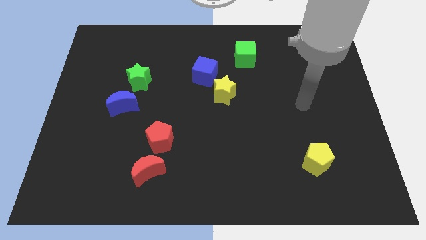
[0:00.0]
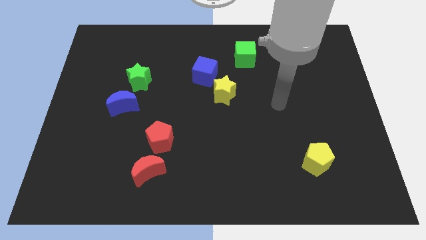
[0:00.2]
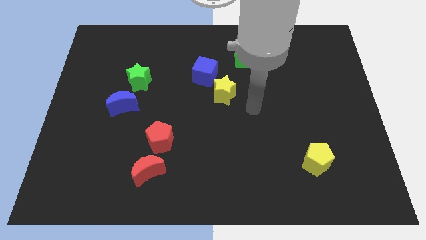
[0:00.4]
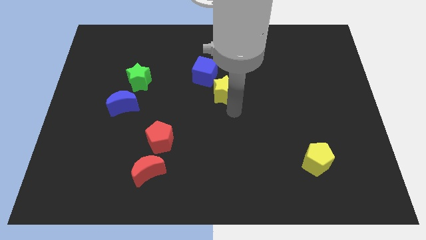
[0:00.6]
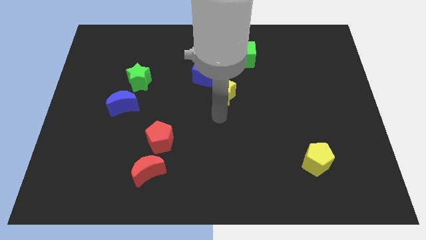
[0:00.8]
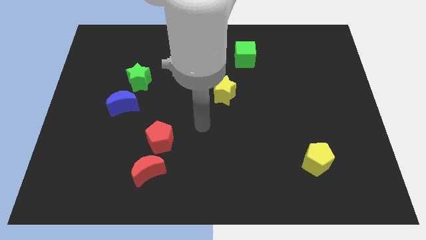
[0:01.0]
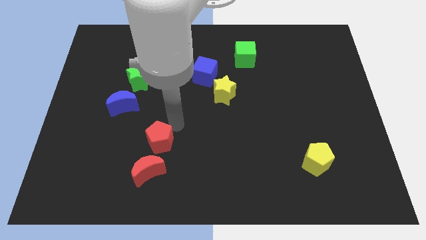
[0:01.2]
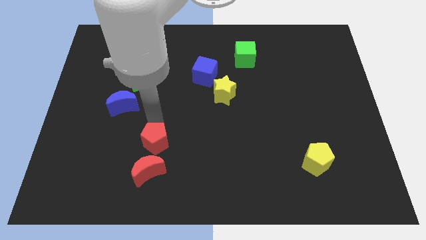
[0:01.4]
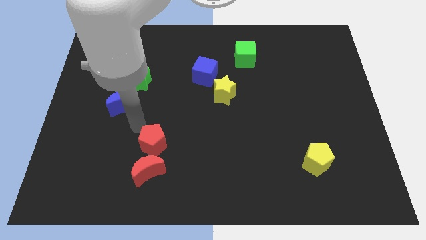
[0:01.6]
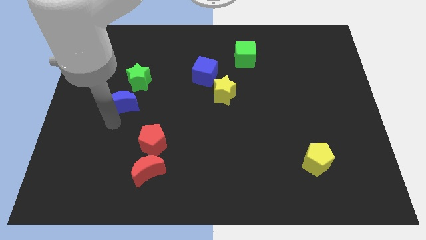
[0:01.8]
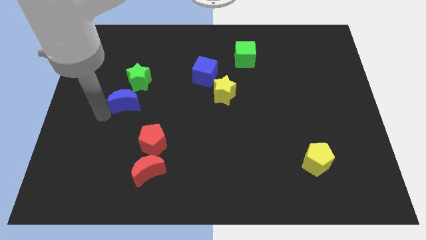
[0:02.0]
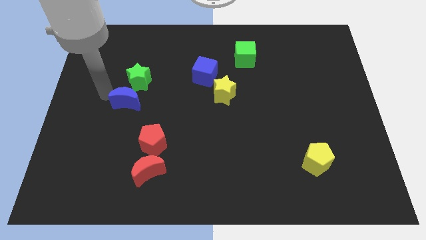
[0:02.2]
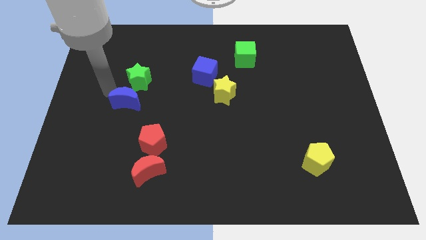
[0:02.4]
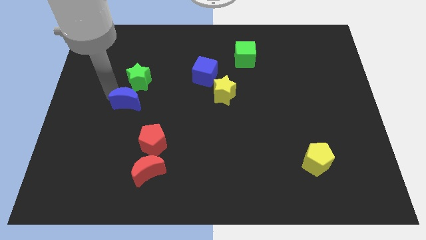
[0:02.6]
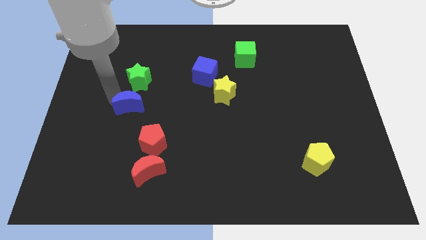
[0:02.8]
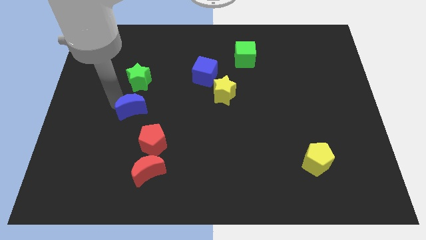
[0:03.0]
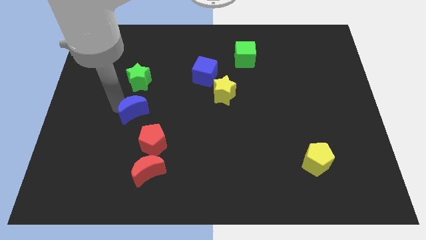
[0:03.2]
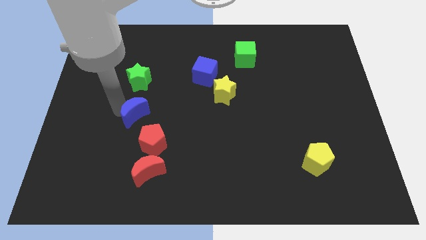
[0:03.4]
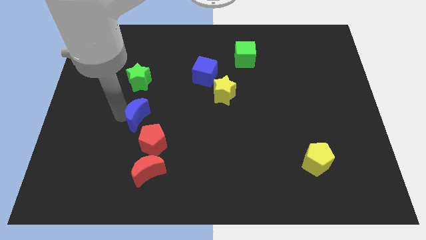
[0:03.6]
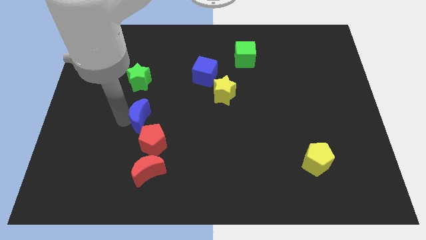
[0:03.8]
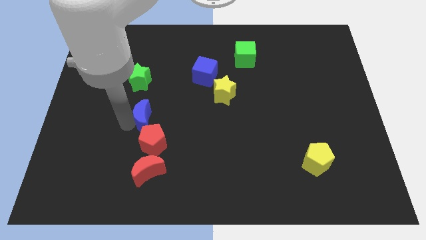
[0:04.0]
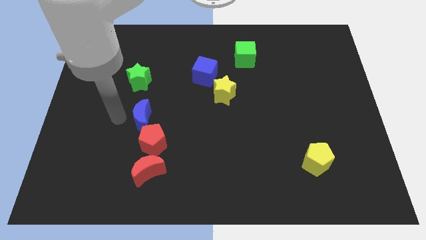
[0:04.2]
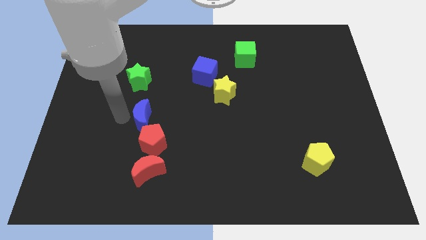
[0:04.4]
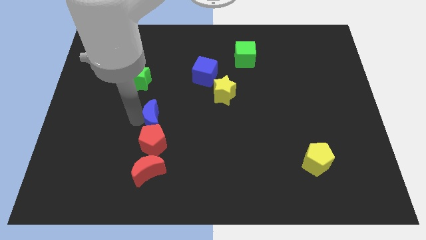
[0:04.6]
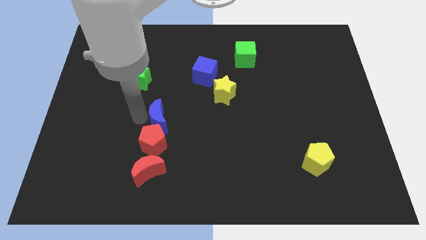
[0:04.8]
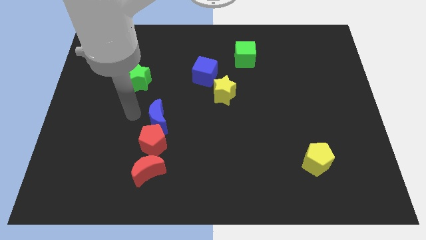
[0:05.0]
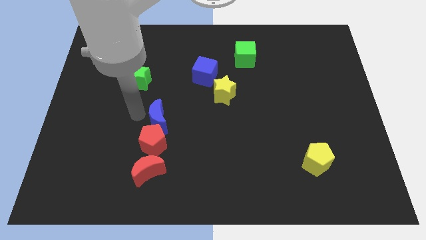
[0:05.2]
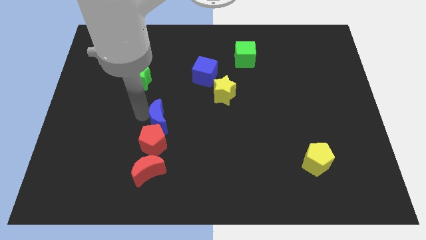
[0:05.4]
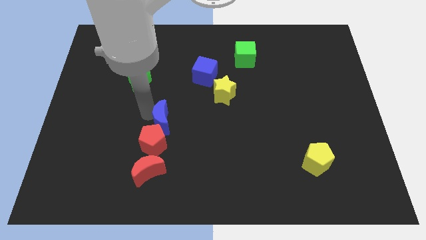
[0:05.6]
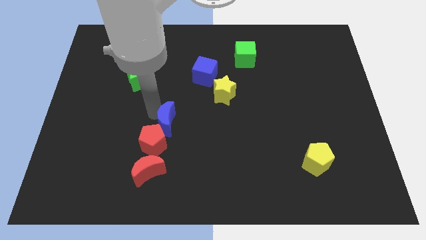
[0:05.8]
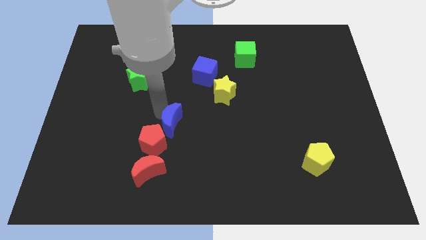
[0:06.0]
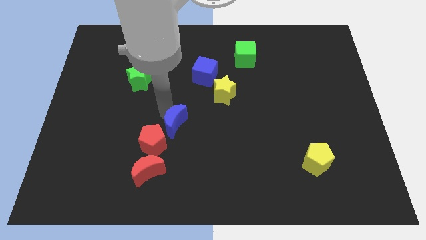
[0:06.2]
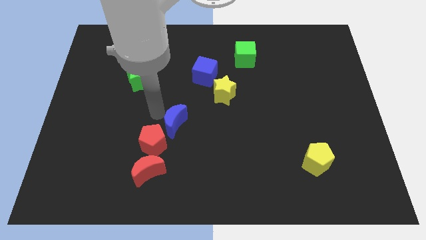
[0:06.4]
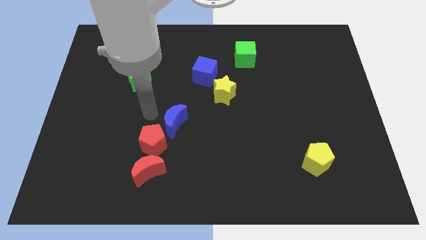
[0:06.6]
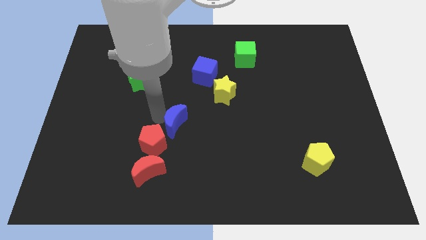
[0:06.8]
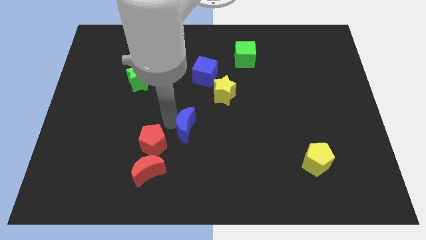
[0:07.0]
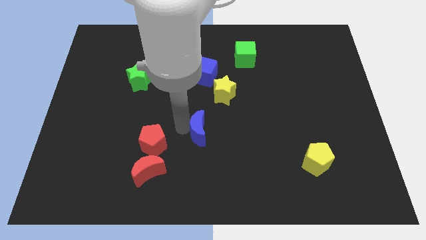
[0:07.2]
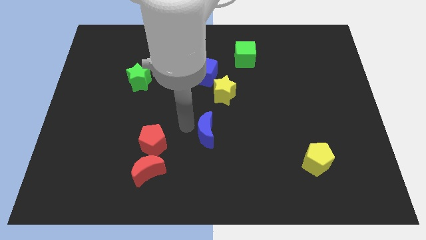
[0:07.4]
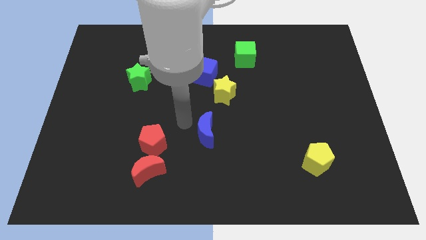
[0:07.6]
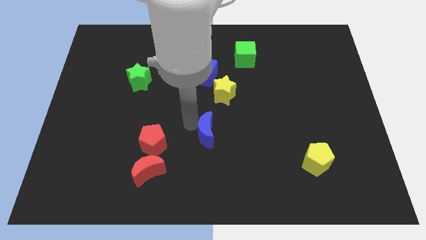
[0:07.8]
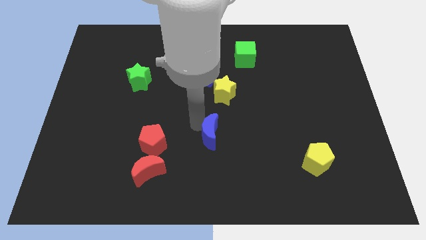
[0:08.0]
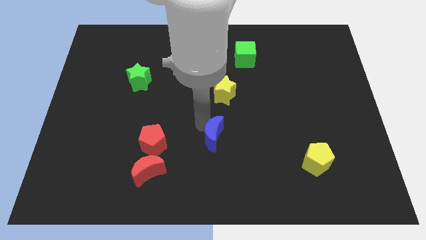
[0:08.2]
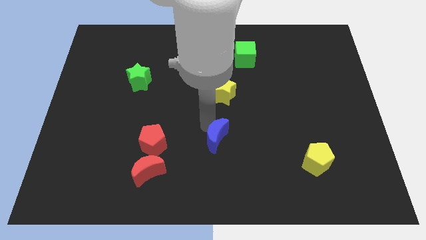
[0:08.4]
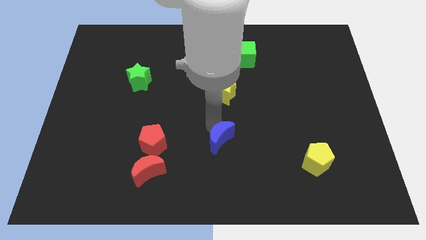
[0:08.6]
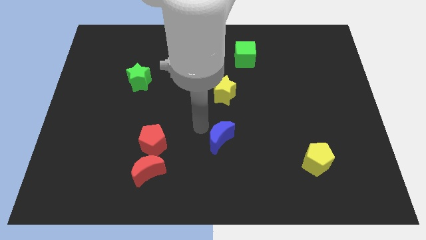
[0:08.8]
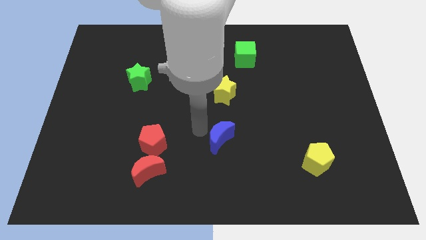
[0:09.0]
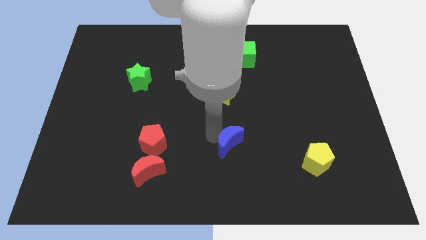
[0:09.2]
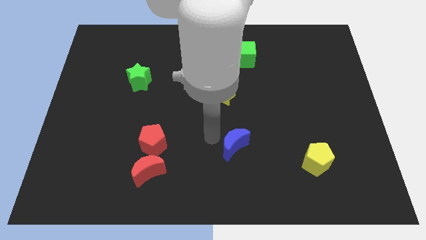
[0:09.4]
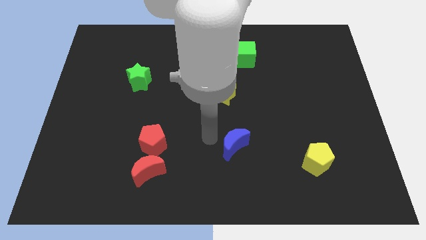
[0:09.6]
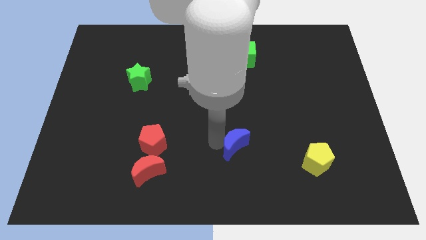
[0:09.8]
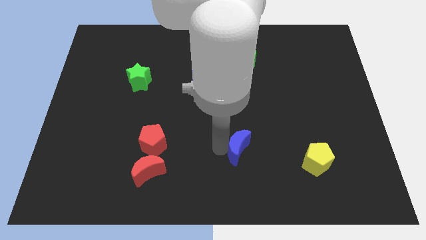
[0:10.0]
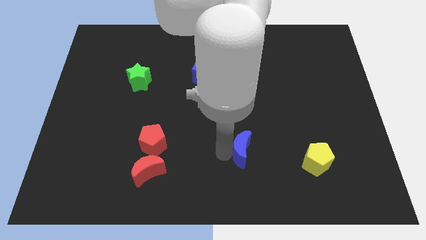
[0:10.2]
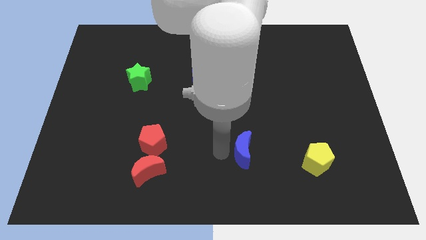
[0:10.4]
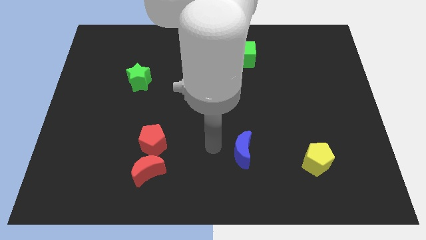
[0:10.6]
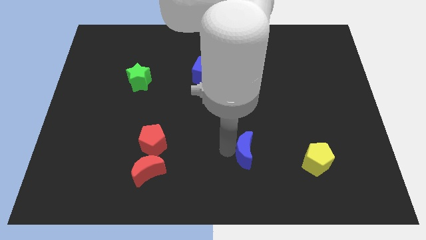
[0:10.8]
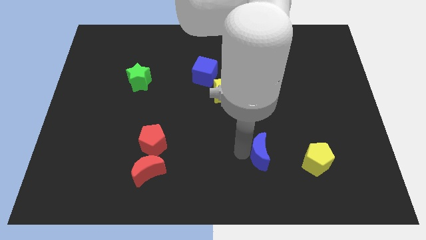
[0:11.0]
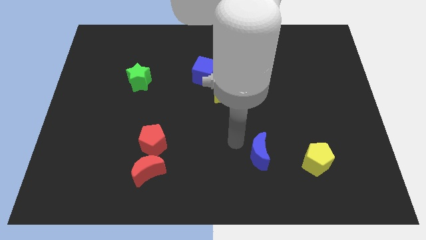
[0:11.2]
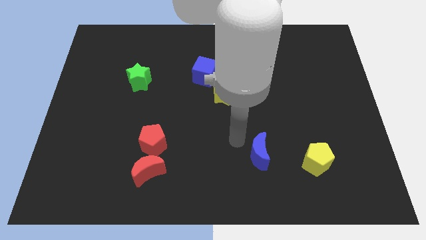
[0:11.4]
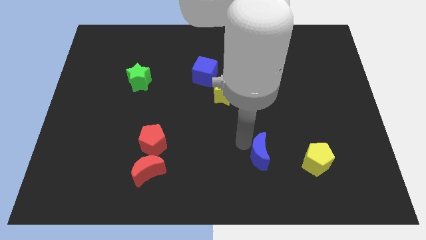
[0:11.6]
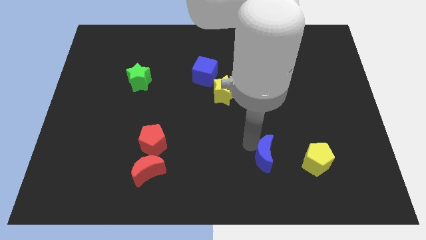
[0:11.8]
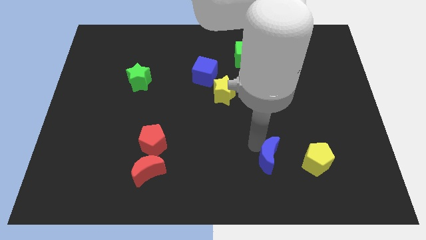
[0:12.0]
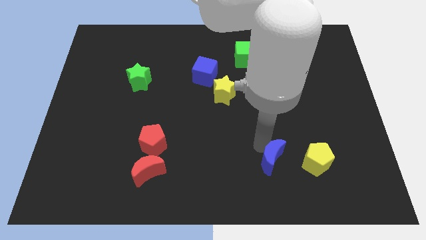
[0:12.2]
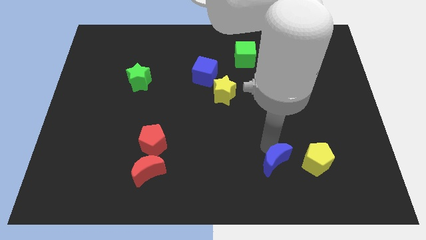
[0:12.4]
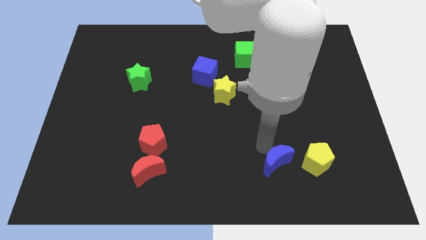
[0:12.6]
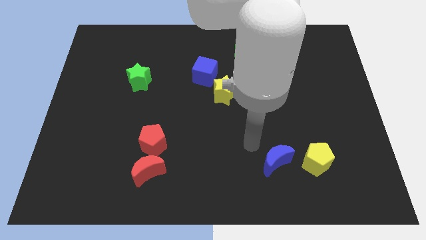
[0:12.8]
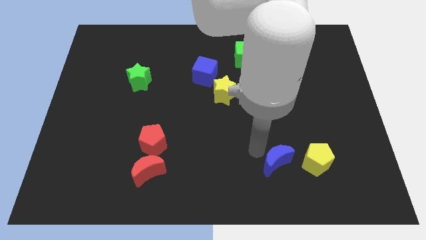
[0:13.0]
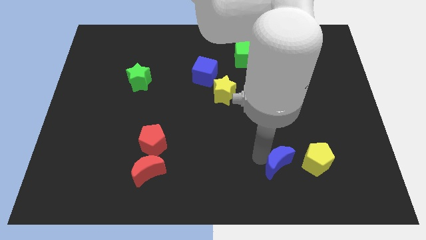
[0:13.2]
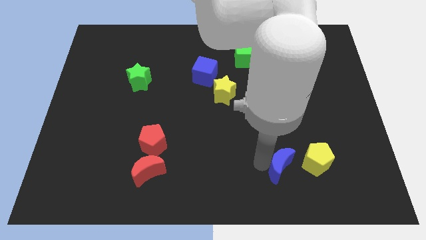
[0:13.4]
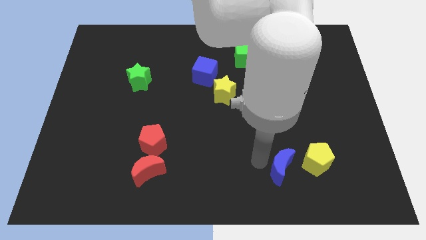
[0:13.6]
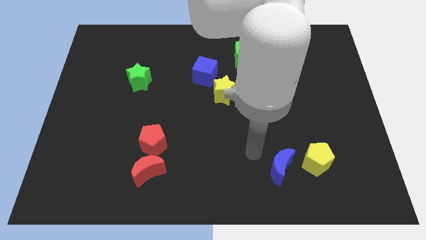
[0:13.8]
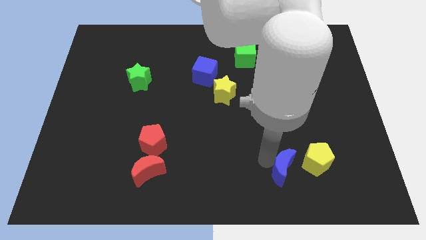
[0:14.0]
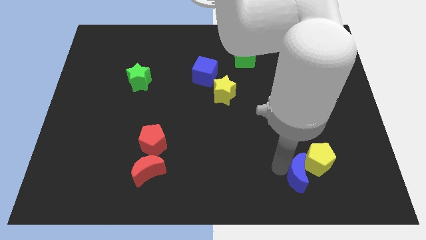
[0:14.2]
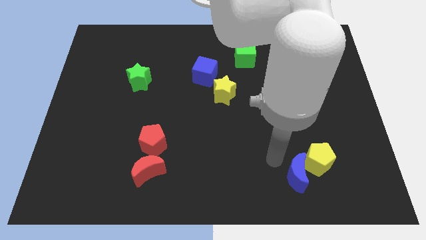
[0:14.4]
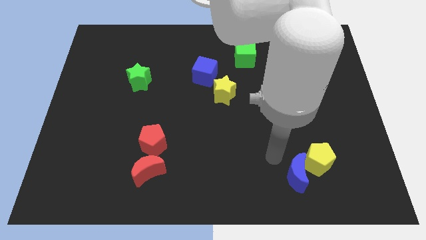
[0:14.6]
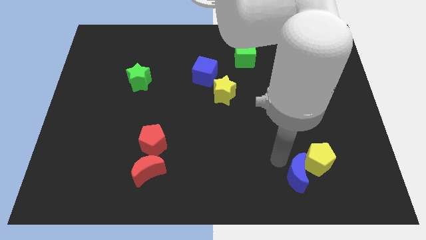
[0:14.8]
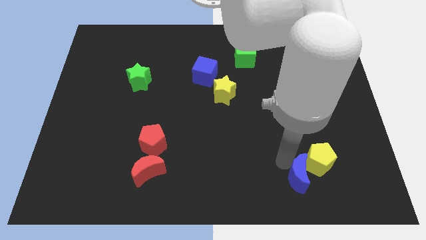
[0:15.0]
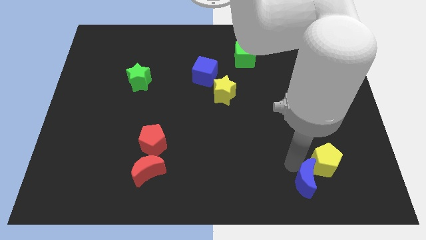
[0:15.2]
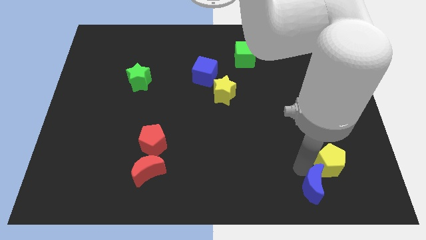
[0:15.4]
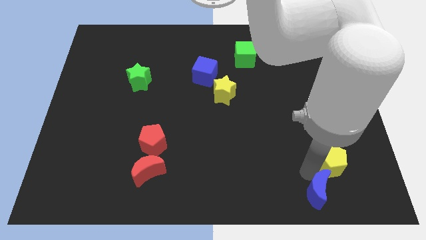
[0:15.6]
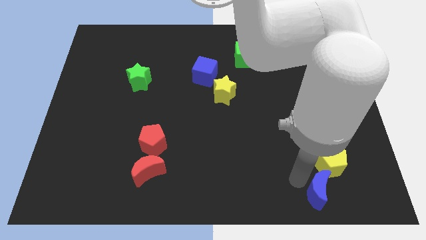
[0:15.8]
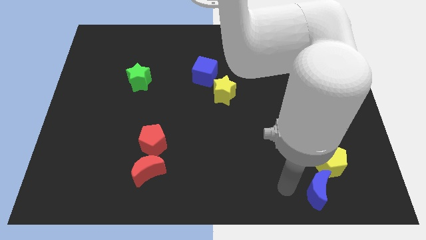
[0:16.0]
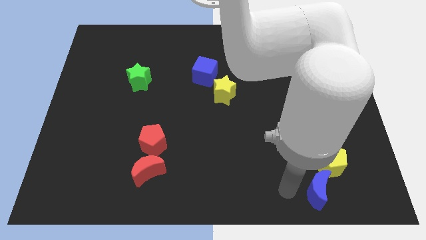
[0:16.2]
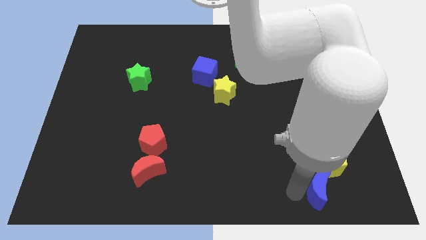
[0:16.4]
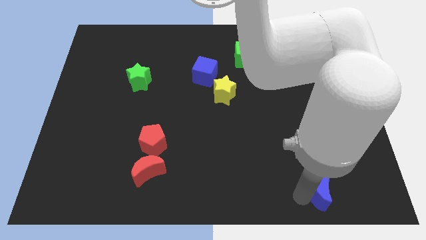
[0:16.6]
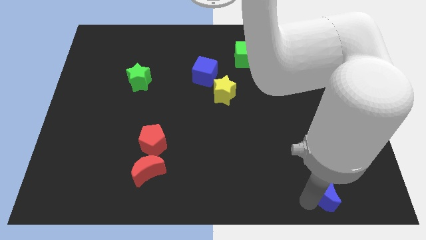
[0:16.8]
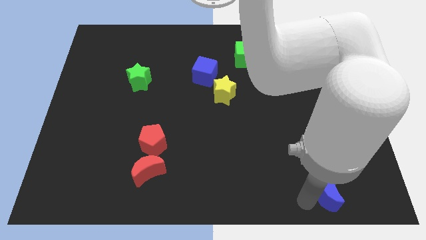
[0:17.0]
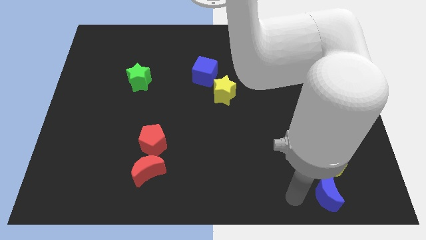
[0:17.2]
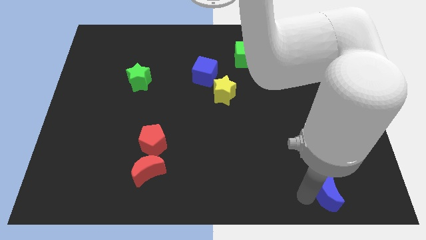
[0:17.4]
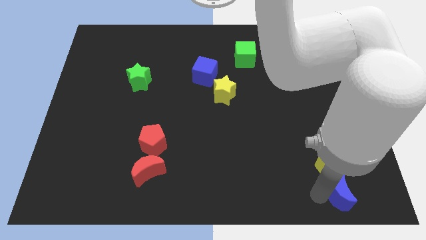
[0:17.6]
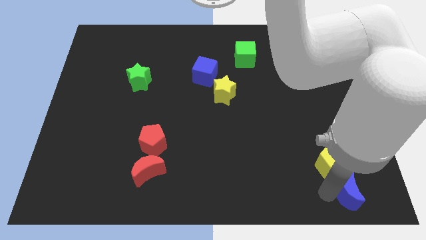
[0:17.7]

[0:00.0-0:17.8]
move the blue moon to the bottom right of the board
